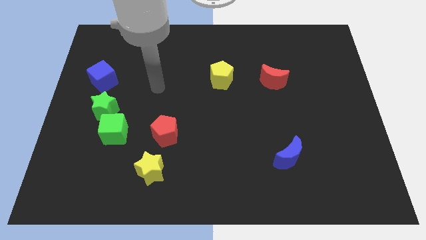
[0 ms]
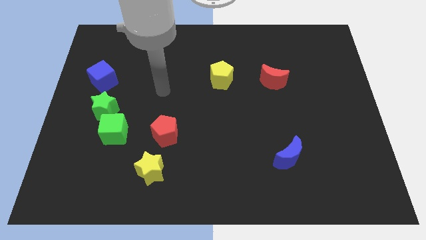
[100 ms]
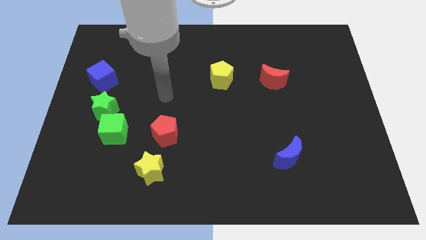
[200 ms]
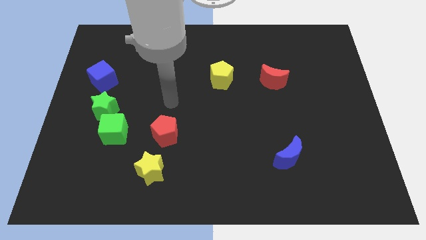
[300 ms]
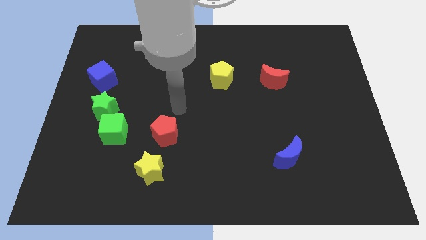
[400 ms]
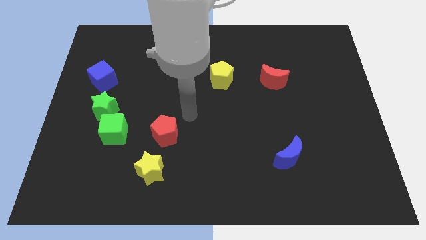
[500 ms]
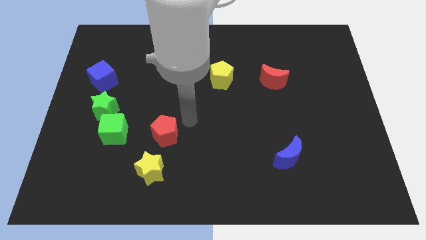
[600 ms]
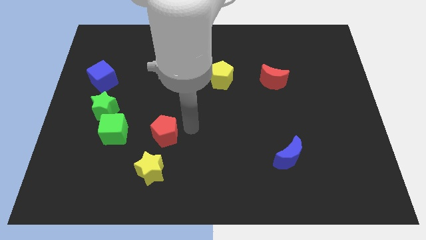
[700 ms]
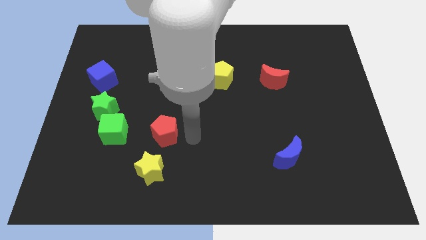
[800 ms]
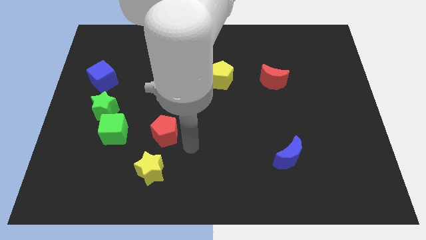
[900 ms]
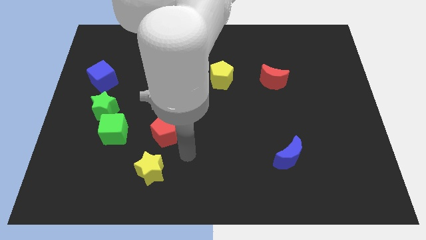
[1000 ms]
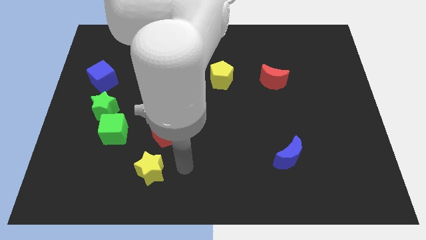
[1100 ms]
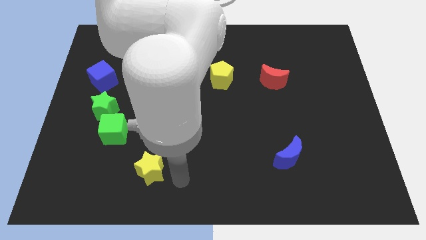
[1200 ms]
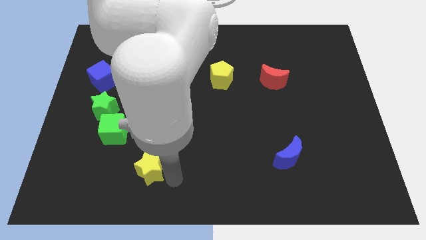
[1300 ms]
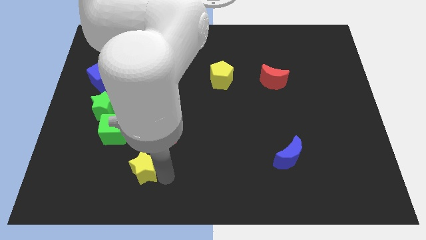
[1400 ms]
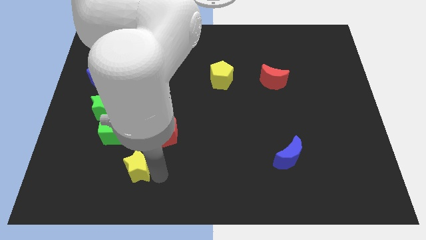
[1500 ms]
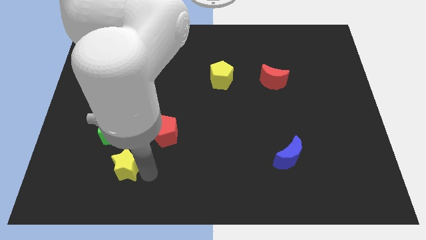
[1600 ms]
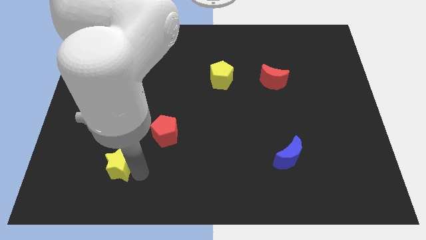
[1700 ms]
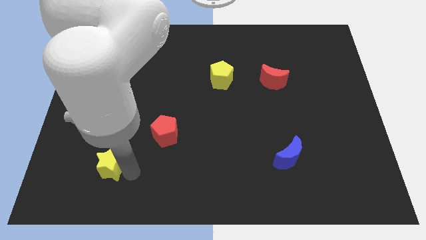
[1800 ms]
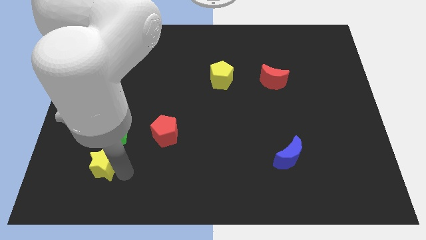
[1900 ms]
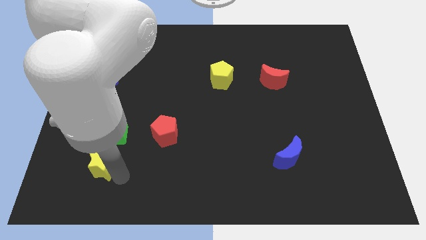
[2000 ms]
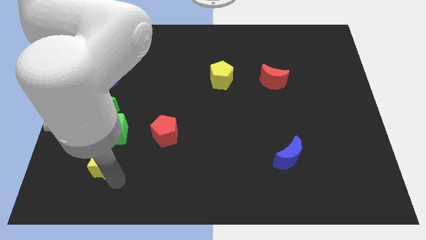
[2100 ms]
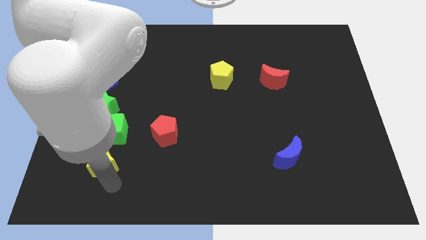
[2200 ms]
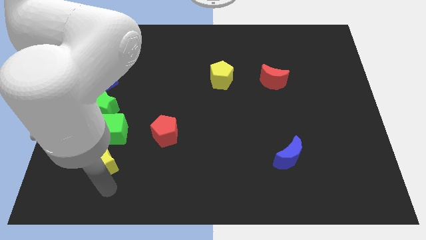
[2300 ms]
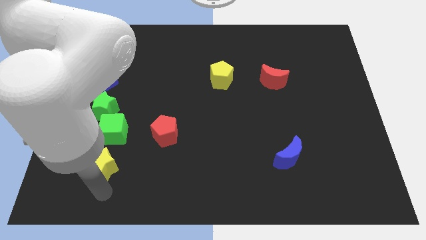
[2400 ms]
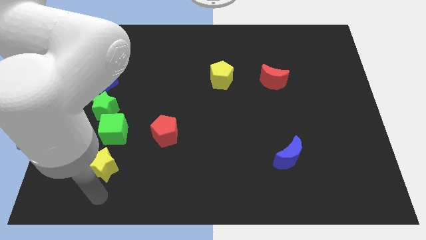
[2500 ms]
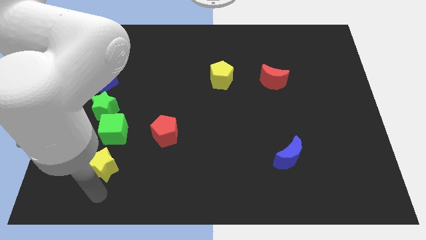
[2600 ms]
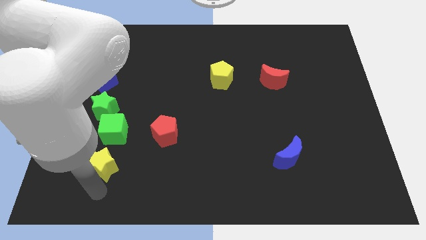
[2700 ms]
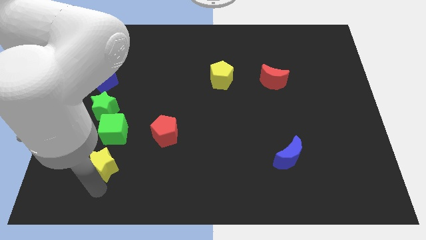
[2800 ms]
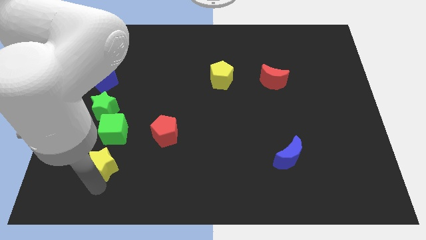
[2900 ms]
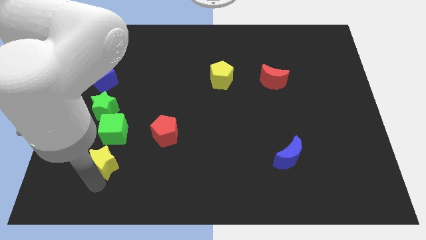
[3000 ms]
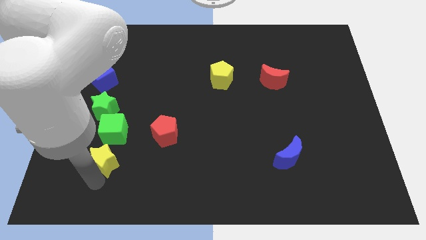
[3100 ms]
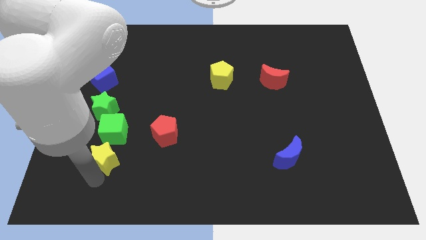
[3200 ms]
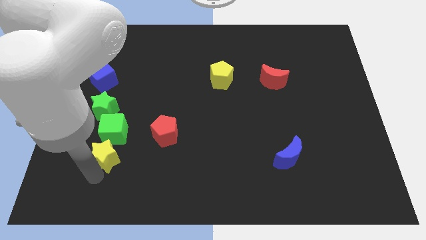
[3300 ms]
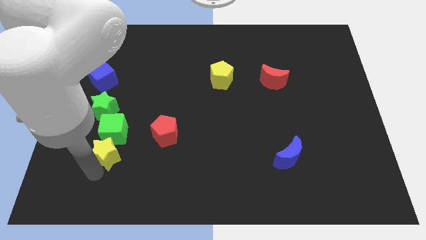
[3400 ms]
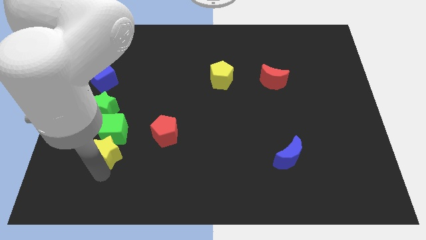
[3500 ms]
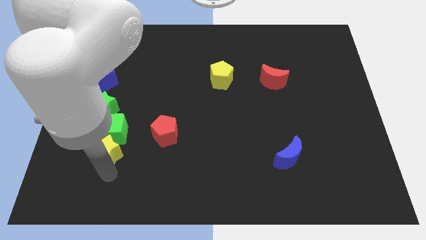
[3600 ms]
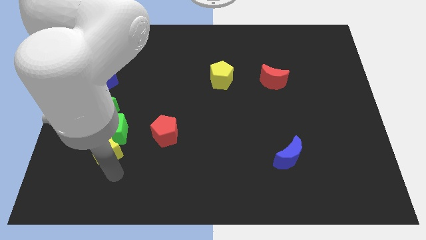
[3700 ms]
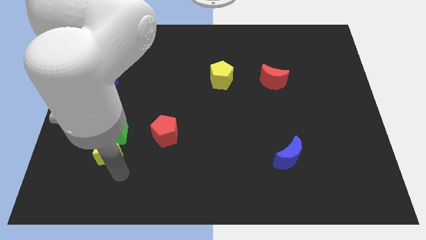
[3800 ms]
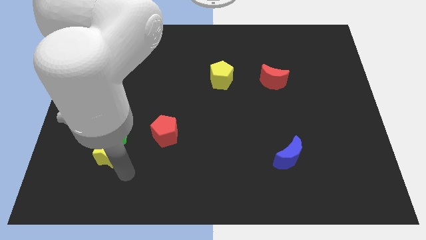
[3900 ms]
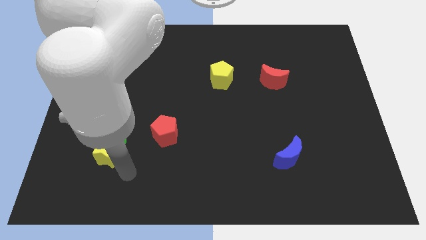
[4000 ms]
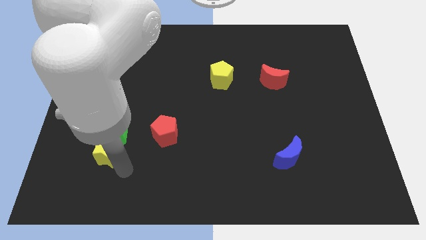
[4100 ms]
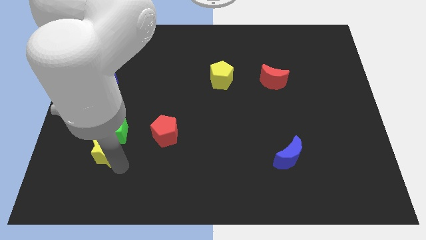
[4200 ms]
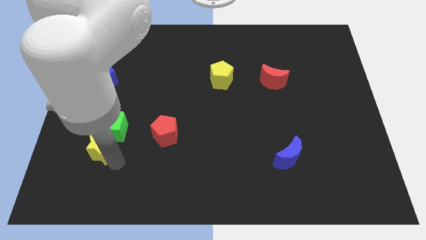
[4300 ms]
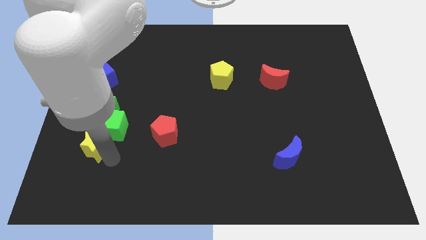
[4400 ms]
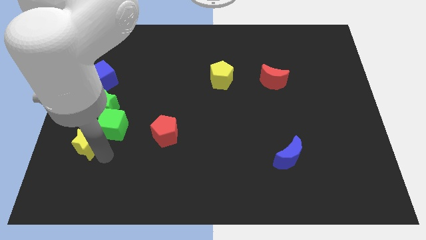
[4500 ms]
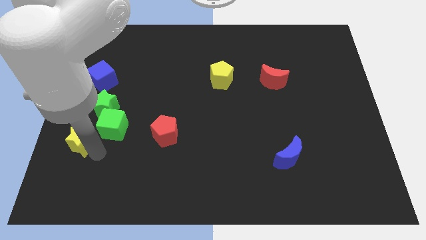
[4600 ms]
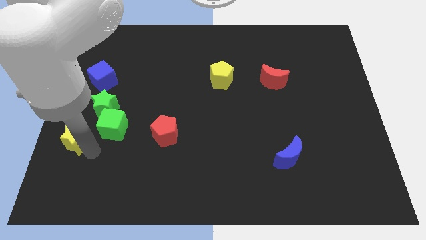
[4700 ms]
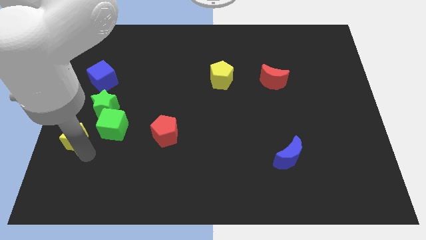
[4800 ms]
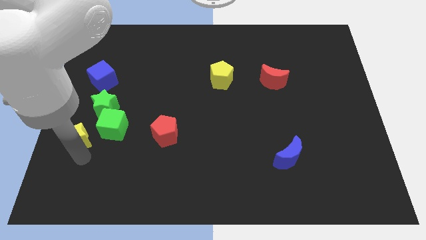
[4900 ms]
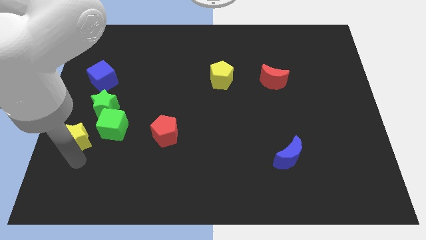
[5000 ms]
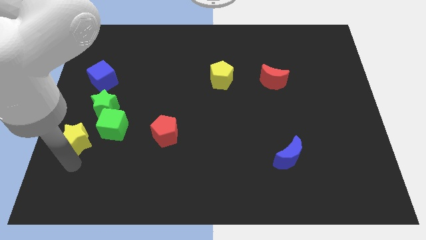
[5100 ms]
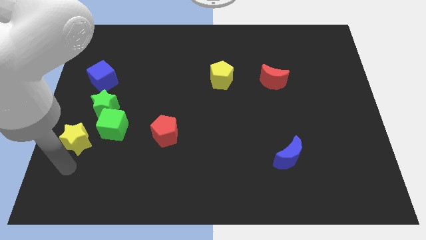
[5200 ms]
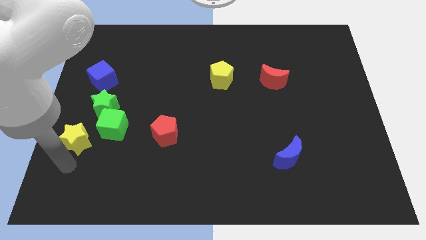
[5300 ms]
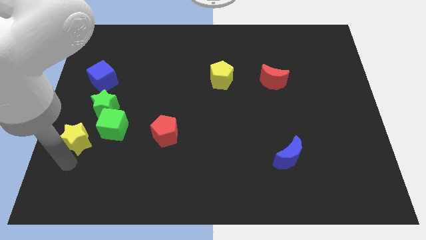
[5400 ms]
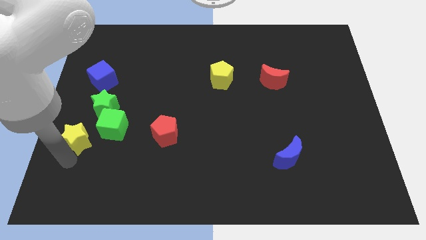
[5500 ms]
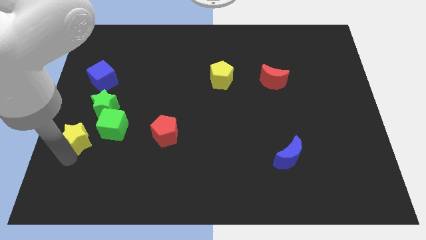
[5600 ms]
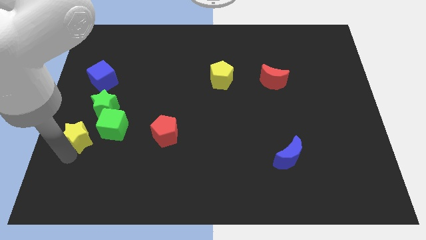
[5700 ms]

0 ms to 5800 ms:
slide the yellow star to the center left
